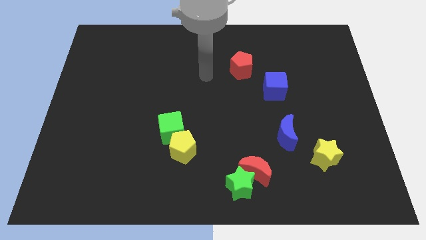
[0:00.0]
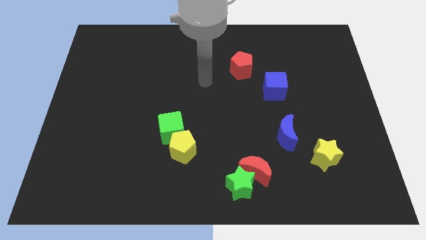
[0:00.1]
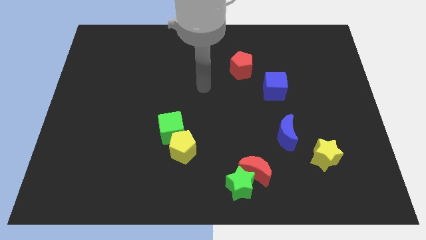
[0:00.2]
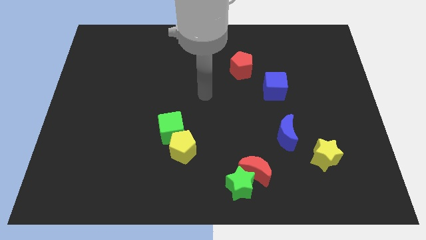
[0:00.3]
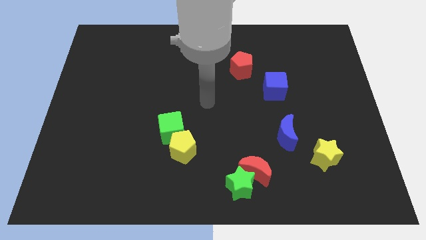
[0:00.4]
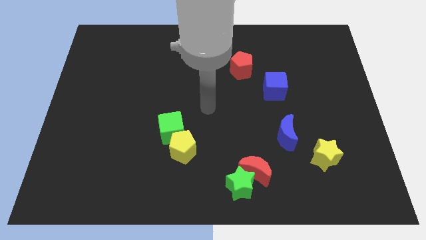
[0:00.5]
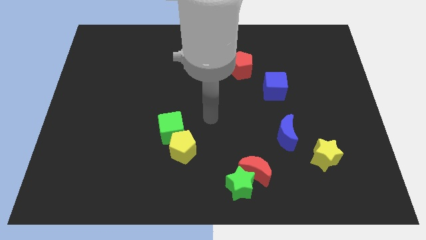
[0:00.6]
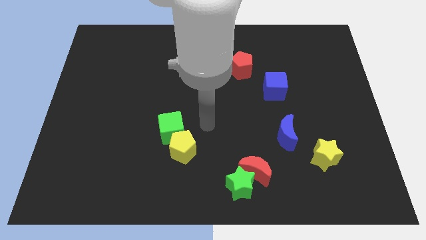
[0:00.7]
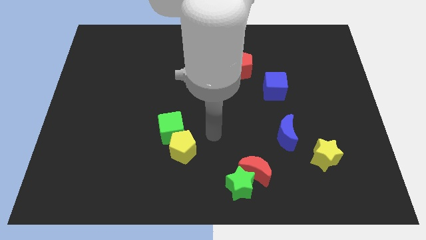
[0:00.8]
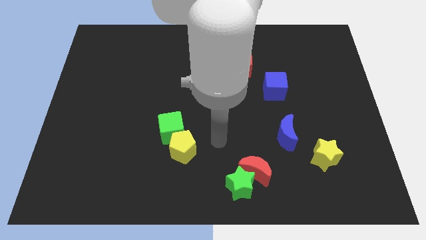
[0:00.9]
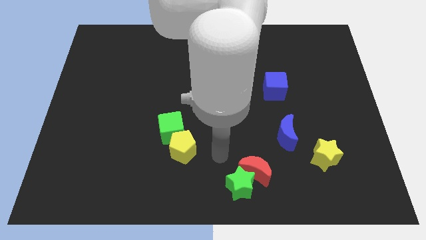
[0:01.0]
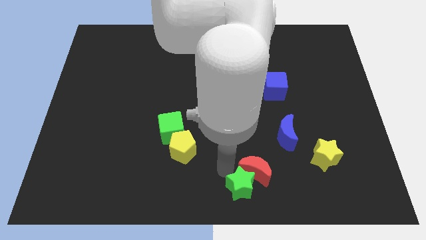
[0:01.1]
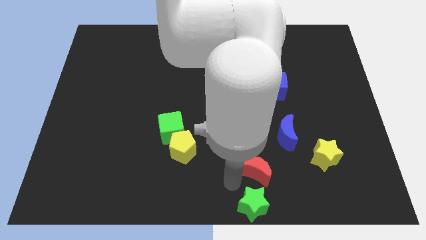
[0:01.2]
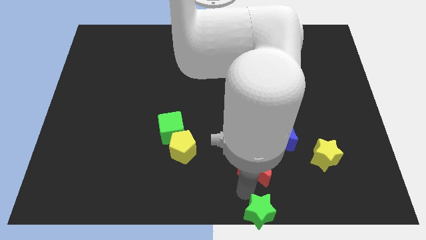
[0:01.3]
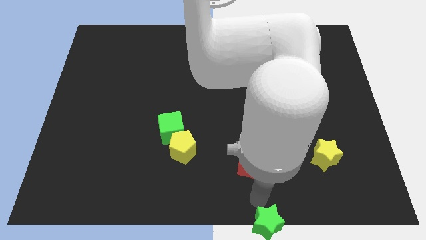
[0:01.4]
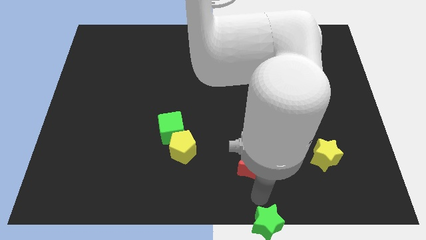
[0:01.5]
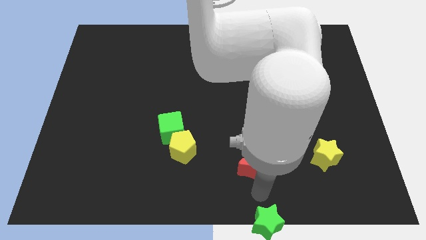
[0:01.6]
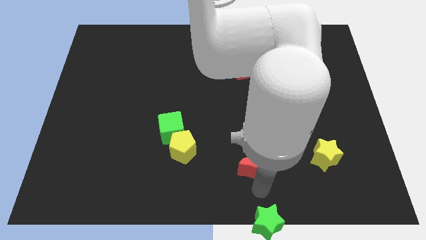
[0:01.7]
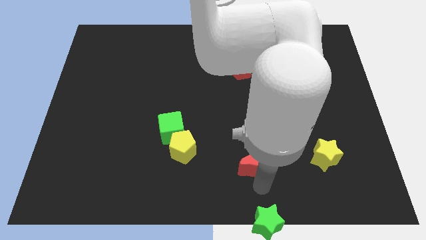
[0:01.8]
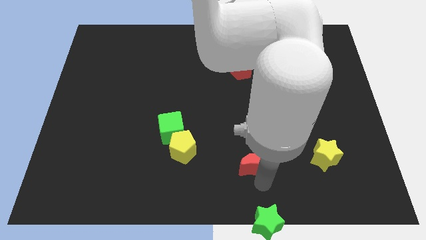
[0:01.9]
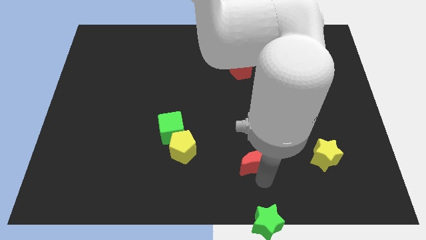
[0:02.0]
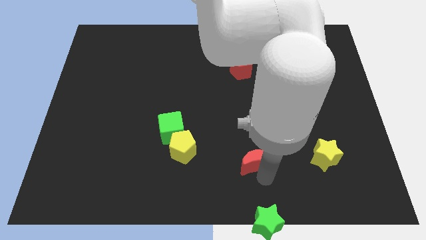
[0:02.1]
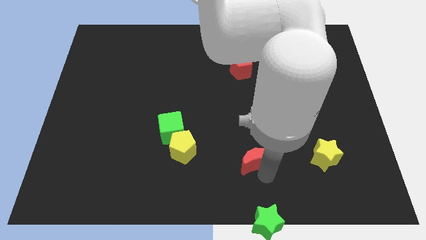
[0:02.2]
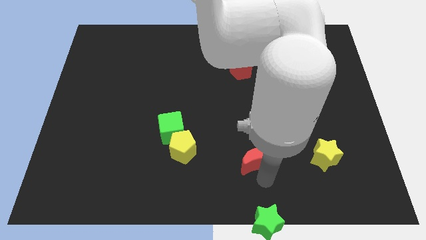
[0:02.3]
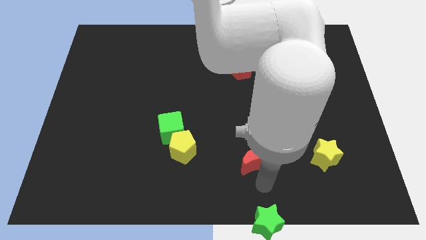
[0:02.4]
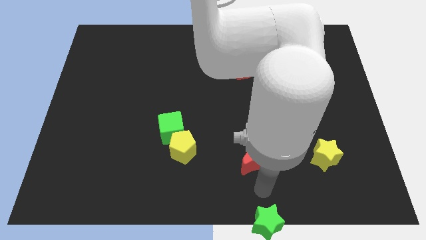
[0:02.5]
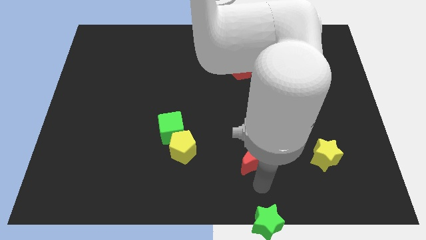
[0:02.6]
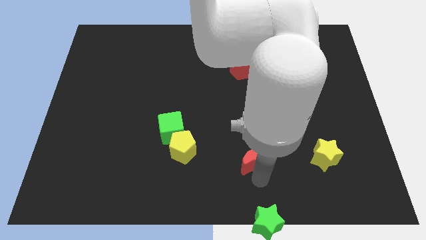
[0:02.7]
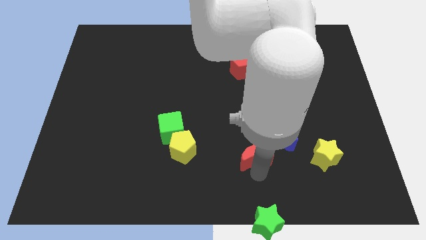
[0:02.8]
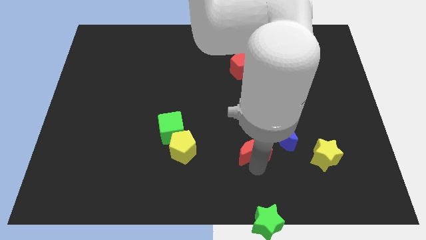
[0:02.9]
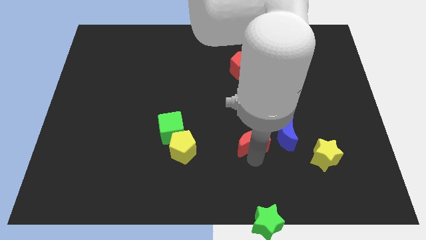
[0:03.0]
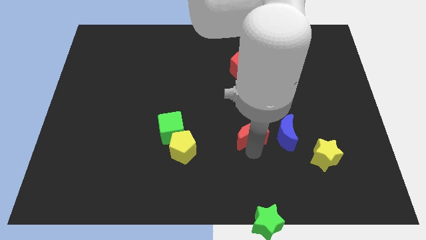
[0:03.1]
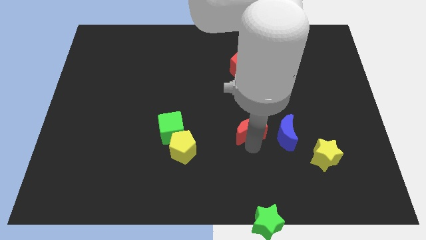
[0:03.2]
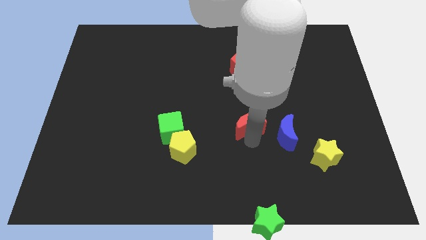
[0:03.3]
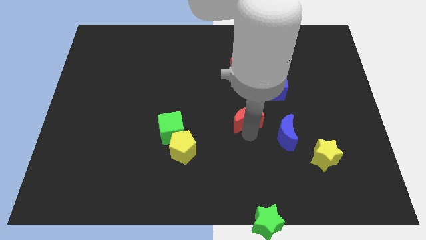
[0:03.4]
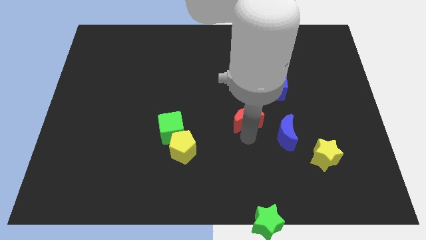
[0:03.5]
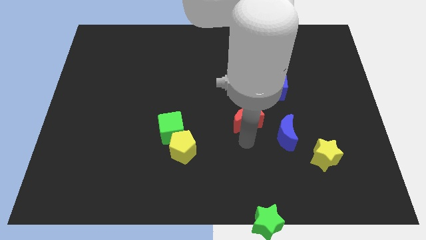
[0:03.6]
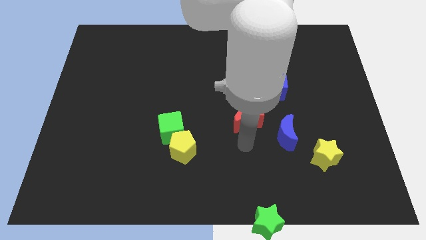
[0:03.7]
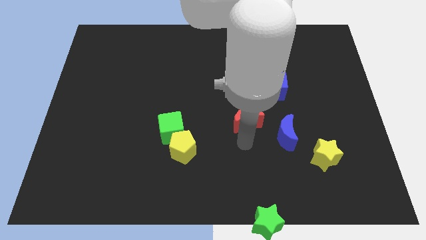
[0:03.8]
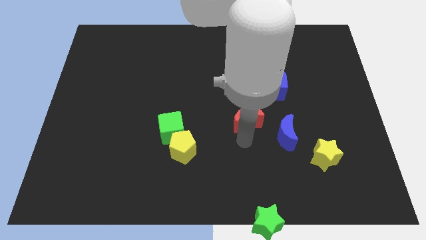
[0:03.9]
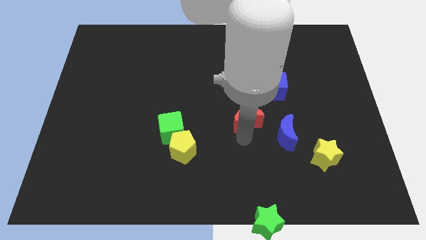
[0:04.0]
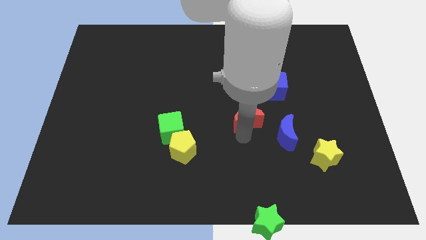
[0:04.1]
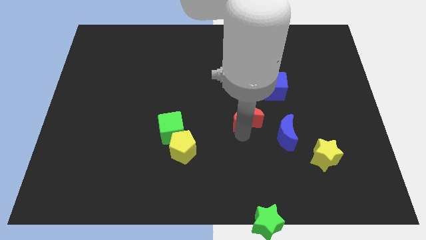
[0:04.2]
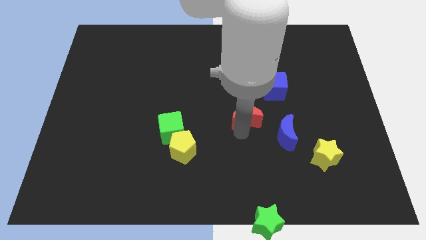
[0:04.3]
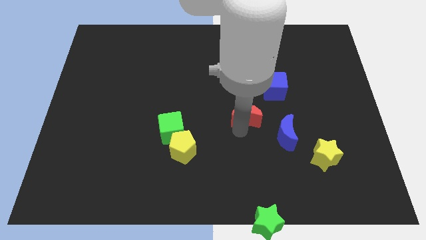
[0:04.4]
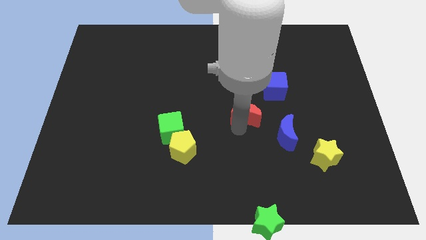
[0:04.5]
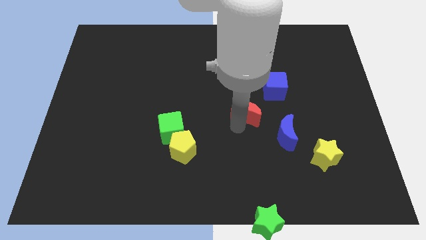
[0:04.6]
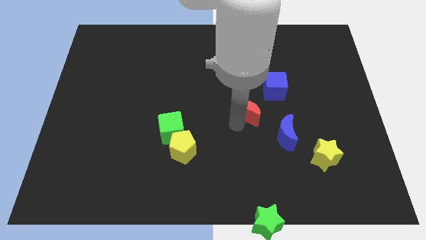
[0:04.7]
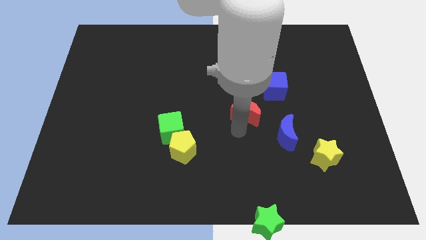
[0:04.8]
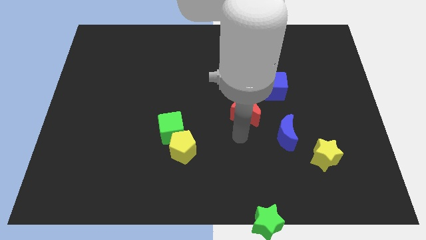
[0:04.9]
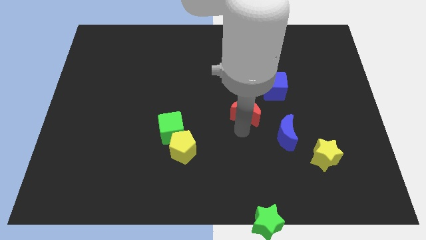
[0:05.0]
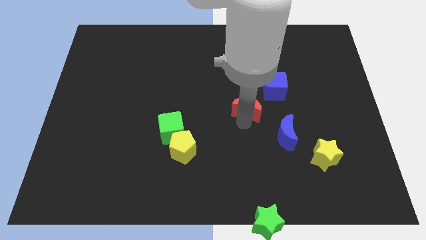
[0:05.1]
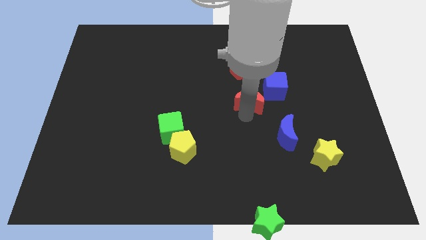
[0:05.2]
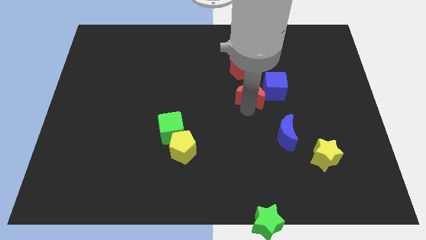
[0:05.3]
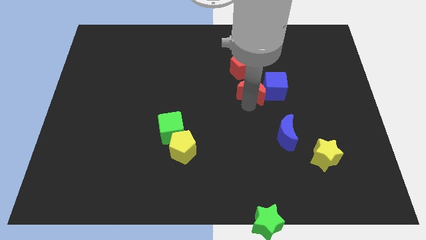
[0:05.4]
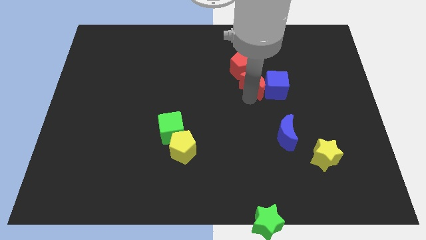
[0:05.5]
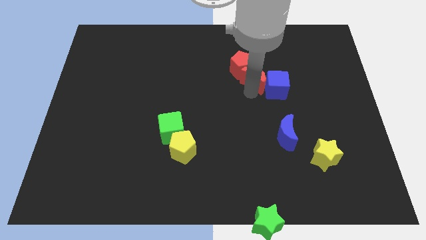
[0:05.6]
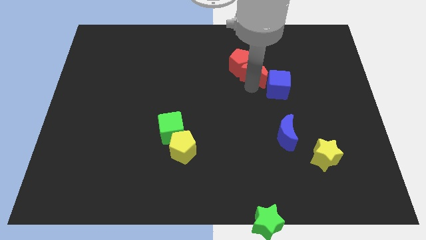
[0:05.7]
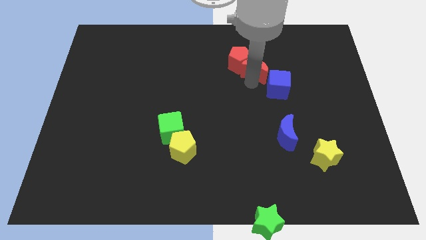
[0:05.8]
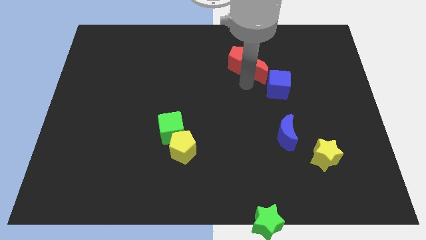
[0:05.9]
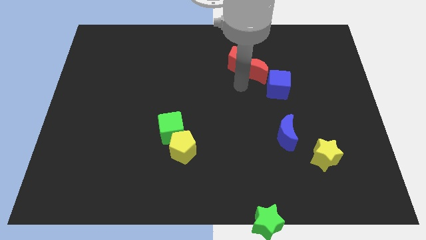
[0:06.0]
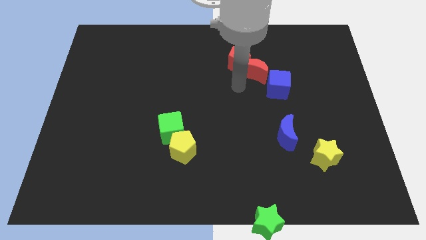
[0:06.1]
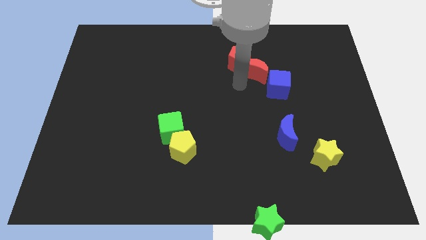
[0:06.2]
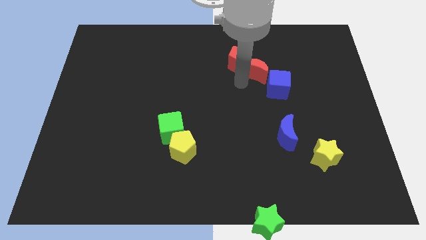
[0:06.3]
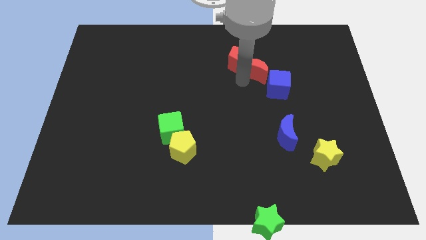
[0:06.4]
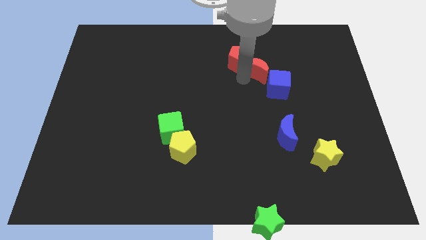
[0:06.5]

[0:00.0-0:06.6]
push the red moon to the top side of the blue cube

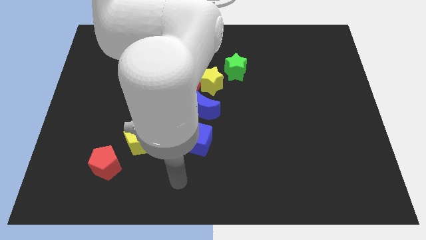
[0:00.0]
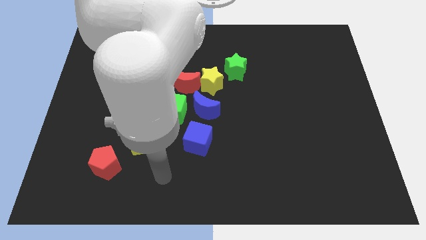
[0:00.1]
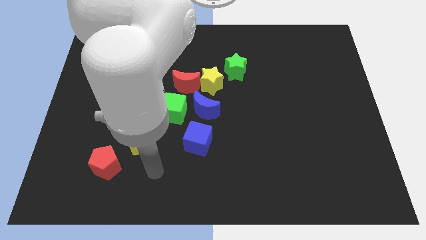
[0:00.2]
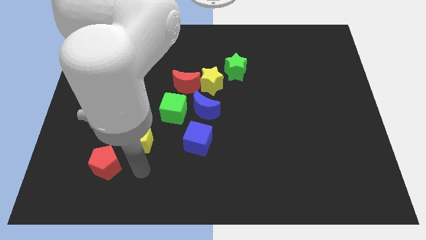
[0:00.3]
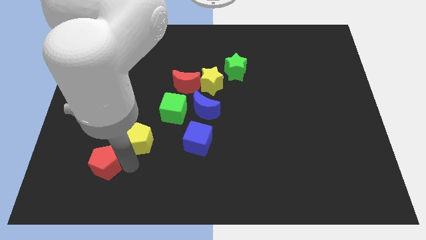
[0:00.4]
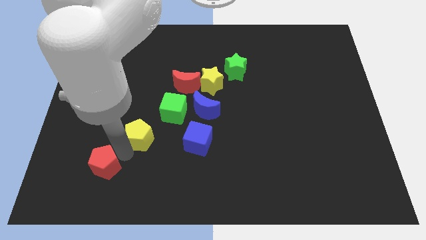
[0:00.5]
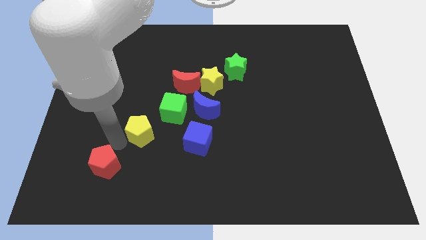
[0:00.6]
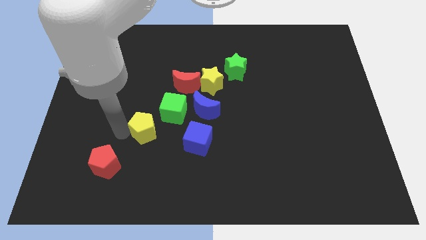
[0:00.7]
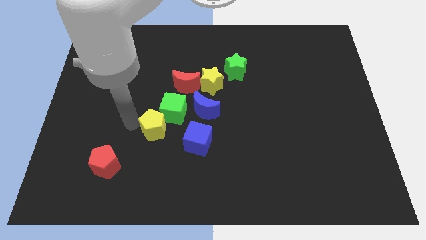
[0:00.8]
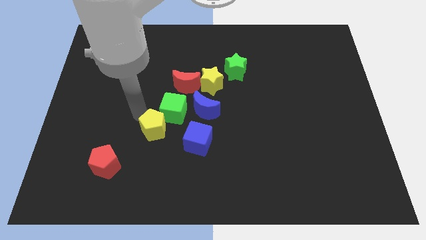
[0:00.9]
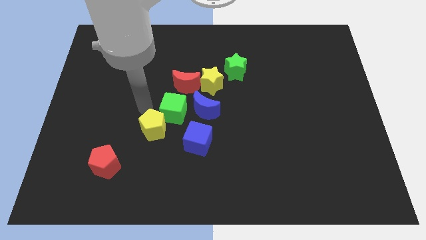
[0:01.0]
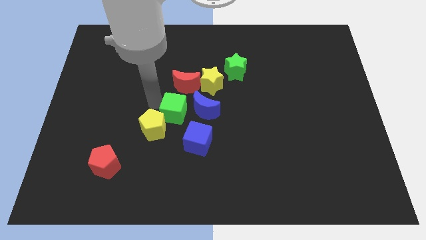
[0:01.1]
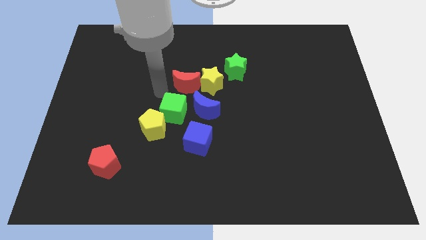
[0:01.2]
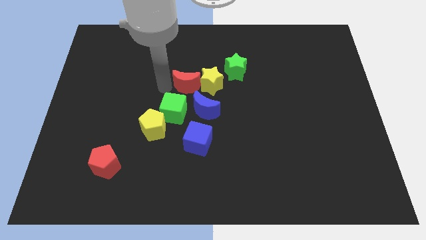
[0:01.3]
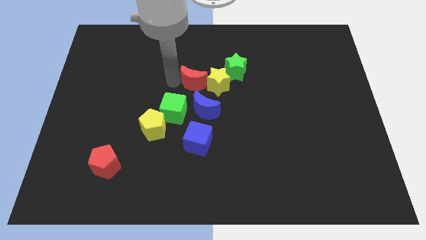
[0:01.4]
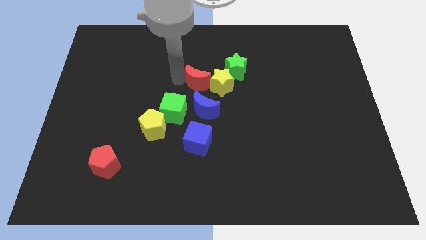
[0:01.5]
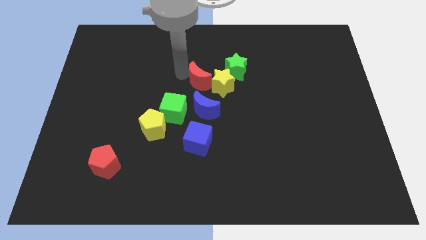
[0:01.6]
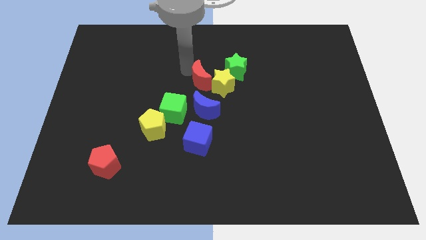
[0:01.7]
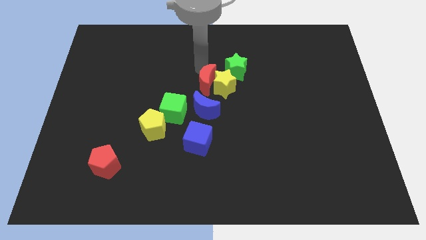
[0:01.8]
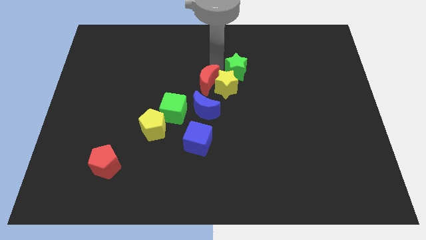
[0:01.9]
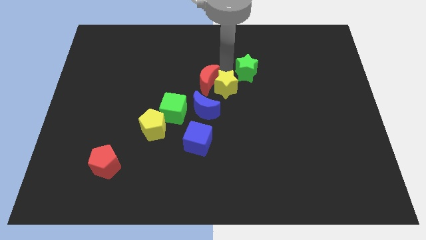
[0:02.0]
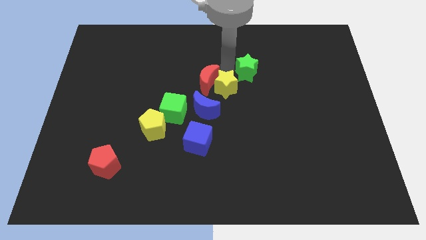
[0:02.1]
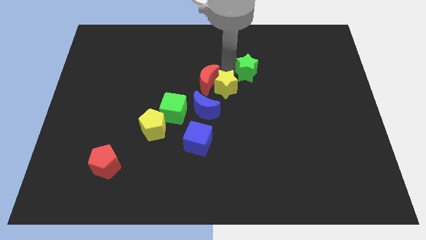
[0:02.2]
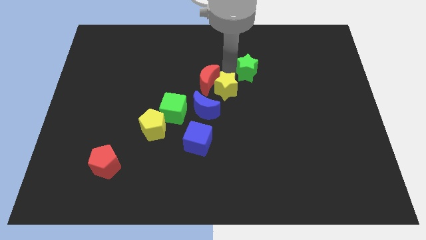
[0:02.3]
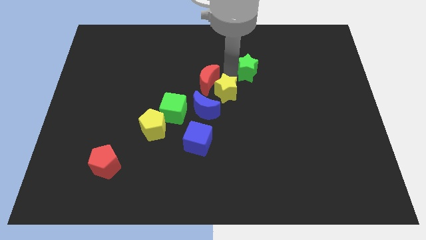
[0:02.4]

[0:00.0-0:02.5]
push the yellow star below the red moon
